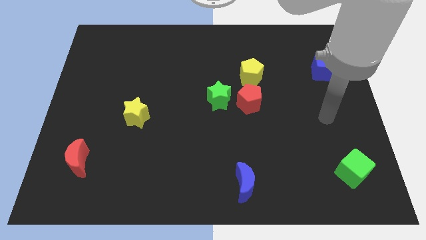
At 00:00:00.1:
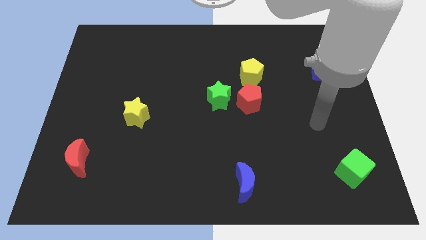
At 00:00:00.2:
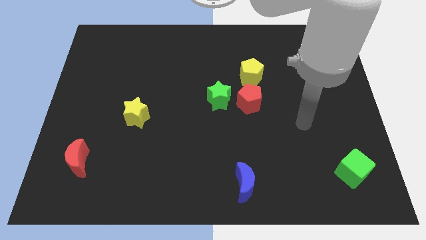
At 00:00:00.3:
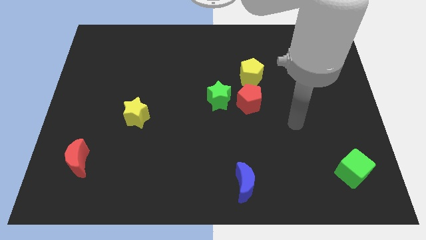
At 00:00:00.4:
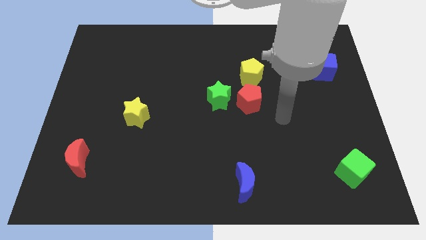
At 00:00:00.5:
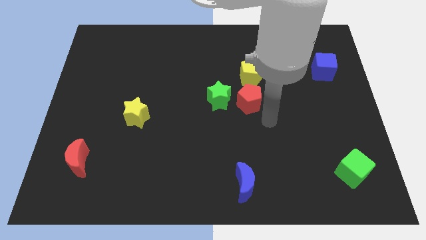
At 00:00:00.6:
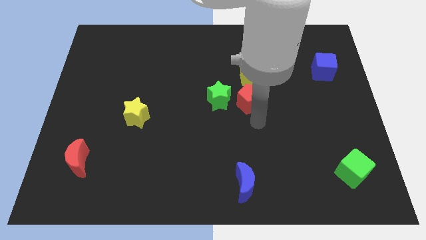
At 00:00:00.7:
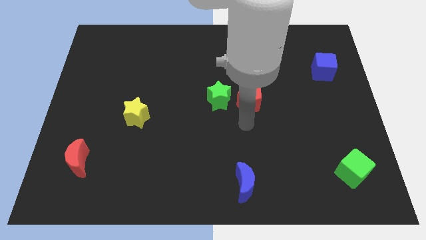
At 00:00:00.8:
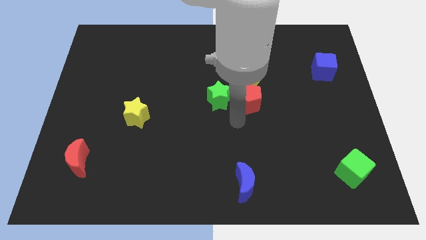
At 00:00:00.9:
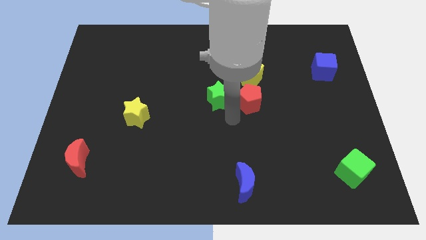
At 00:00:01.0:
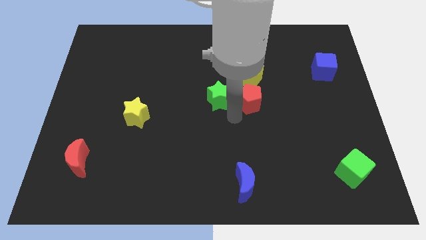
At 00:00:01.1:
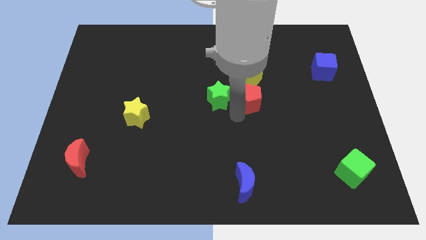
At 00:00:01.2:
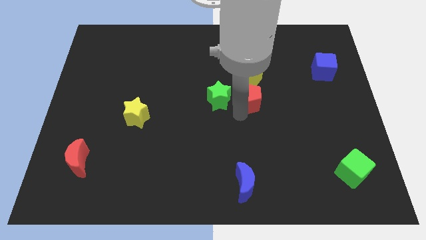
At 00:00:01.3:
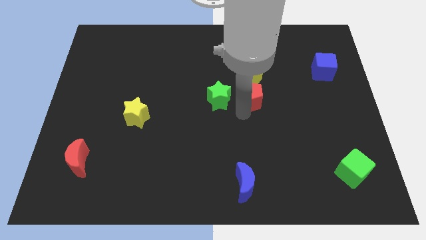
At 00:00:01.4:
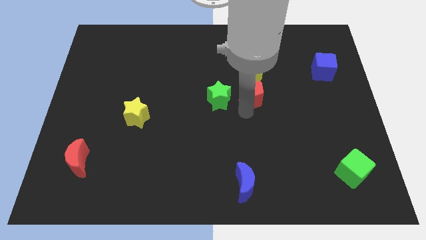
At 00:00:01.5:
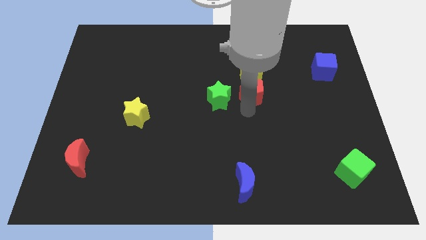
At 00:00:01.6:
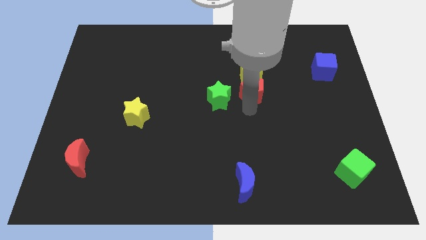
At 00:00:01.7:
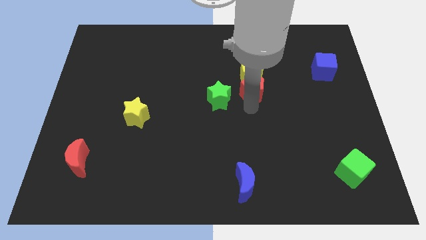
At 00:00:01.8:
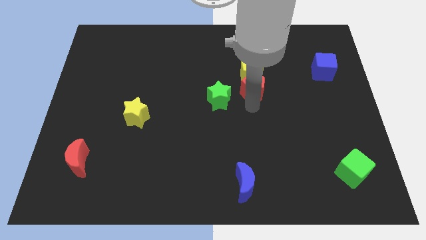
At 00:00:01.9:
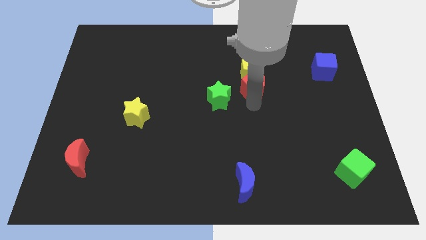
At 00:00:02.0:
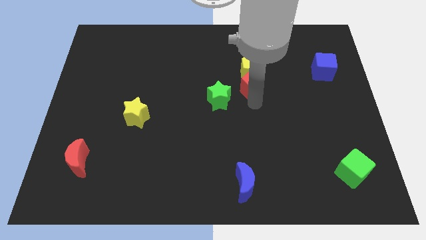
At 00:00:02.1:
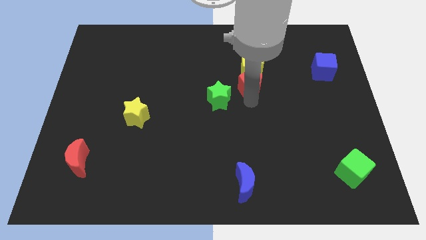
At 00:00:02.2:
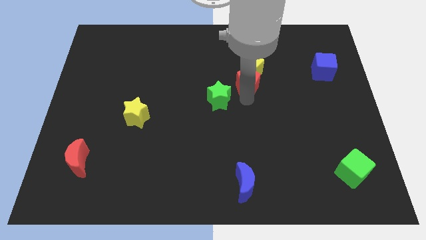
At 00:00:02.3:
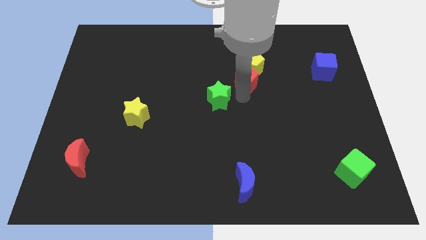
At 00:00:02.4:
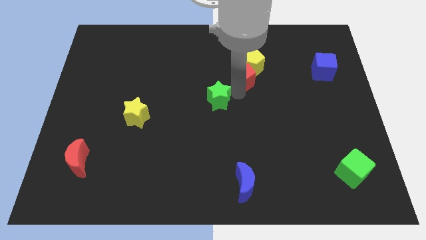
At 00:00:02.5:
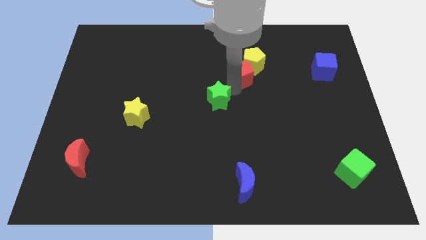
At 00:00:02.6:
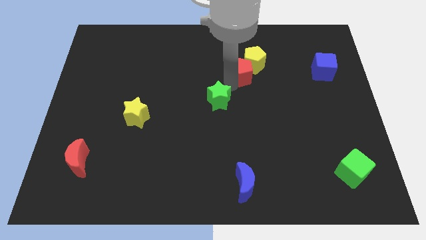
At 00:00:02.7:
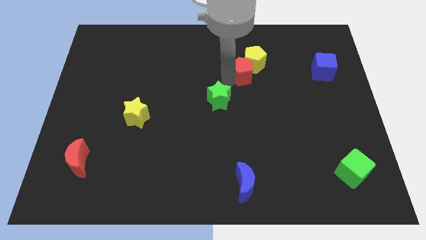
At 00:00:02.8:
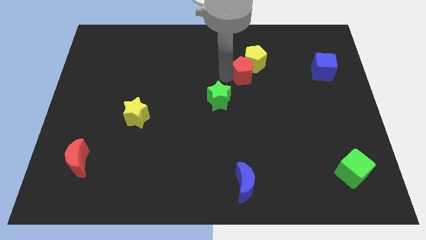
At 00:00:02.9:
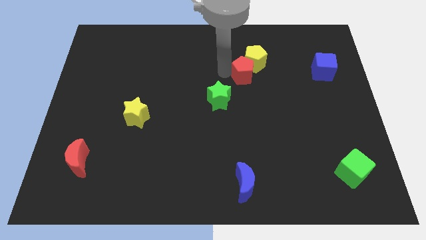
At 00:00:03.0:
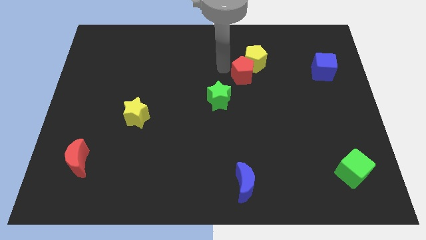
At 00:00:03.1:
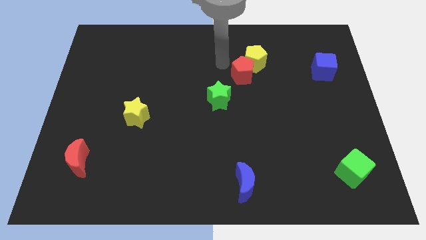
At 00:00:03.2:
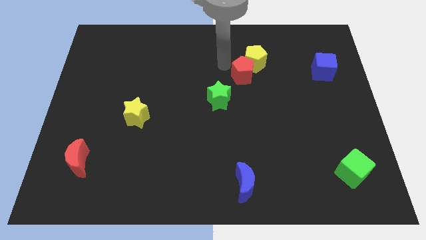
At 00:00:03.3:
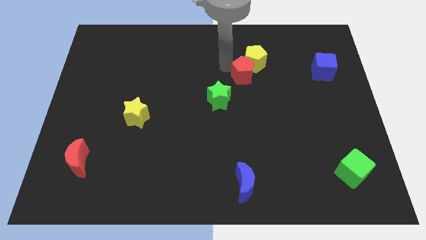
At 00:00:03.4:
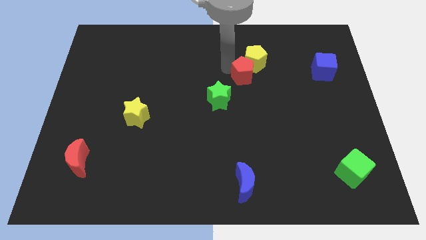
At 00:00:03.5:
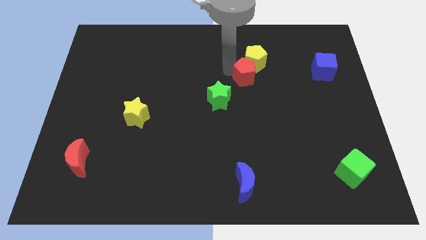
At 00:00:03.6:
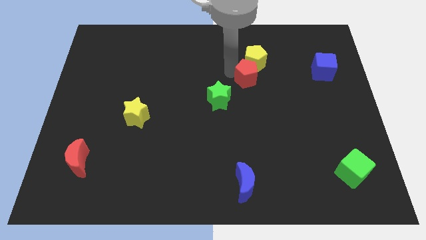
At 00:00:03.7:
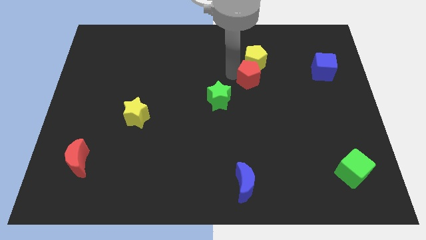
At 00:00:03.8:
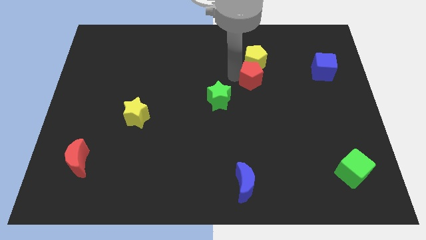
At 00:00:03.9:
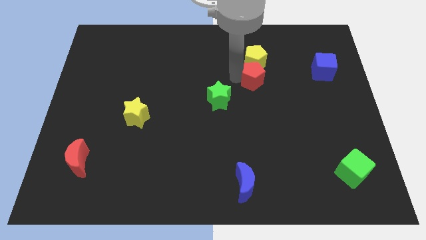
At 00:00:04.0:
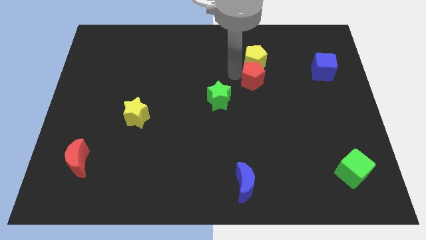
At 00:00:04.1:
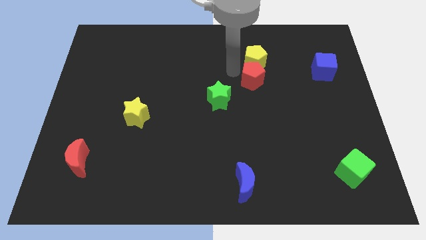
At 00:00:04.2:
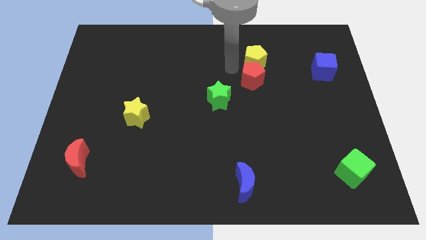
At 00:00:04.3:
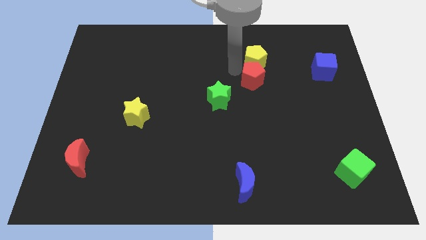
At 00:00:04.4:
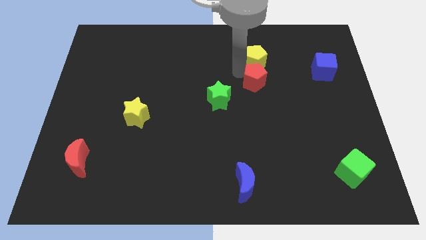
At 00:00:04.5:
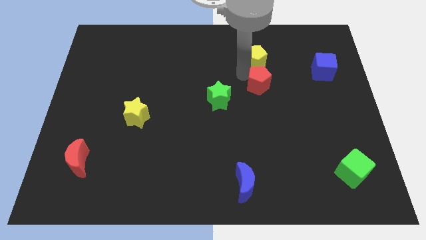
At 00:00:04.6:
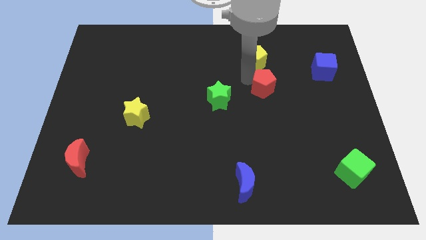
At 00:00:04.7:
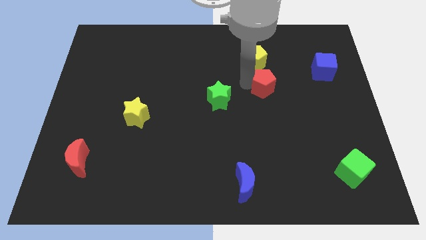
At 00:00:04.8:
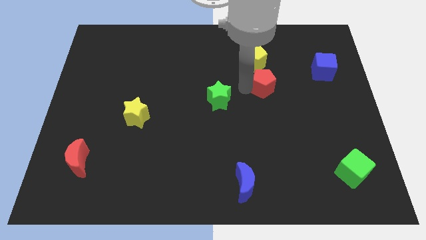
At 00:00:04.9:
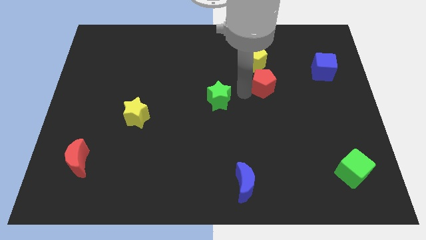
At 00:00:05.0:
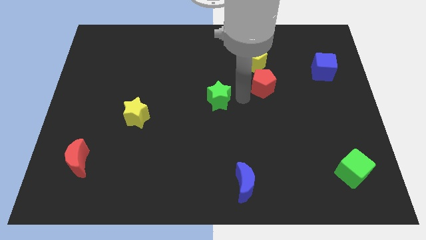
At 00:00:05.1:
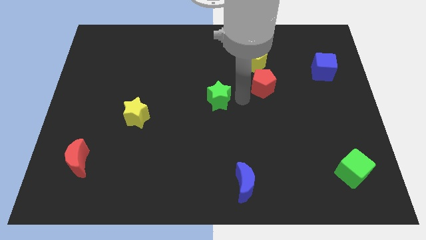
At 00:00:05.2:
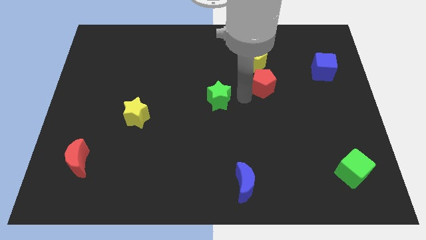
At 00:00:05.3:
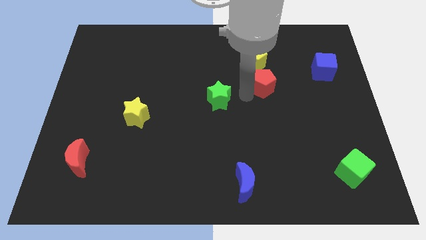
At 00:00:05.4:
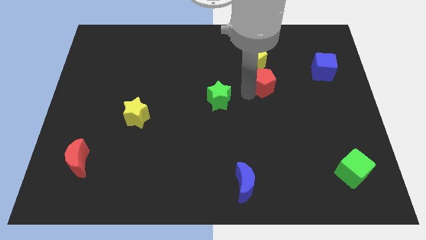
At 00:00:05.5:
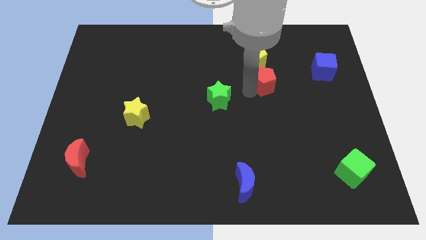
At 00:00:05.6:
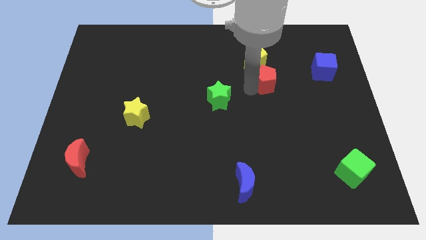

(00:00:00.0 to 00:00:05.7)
slightly slide the red pentagon up and right

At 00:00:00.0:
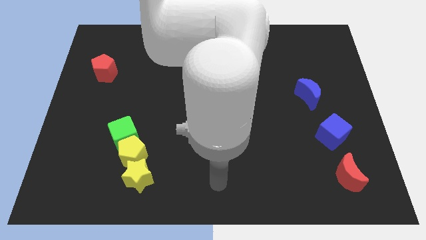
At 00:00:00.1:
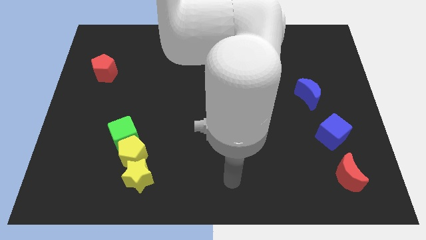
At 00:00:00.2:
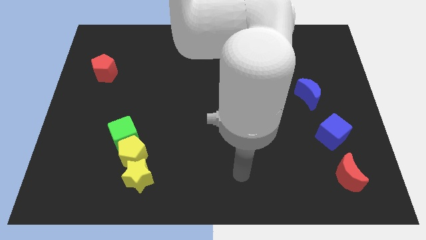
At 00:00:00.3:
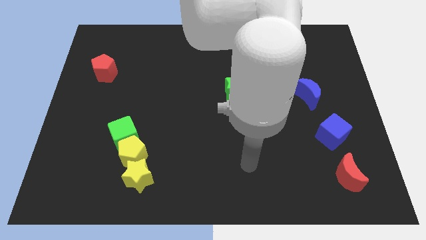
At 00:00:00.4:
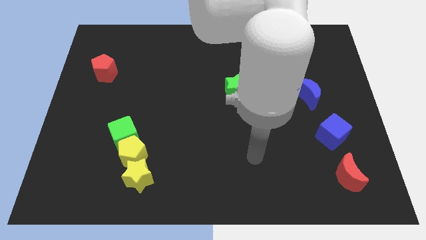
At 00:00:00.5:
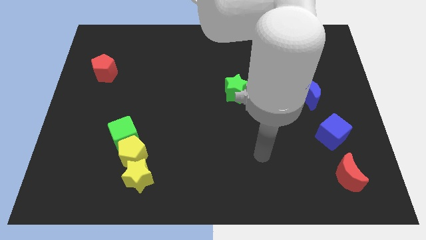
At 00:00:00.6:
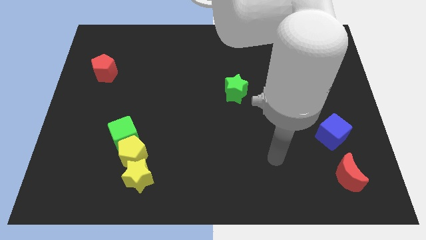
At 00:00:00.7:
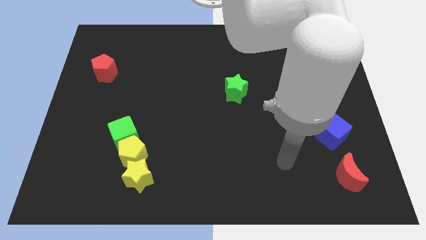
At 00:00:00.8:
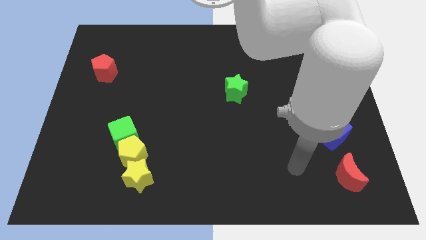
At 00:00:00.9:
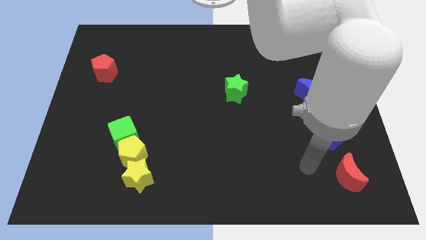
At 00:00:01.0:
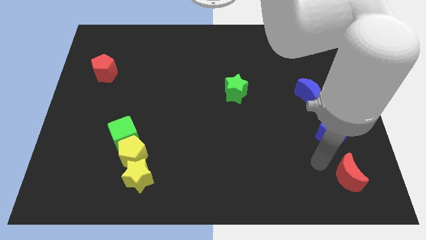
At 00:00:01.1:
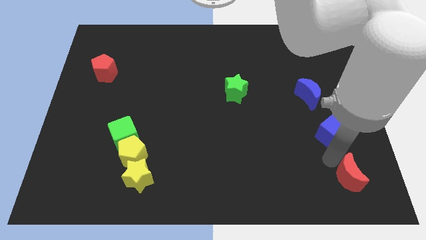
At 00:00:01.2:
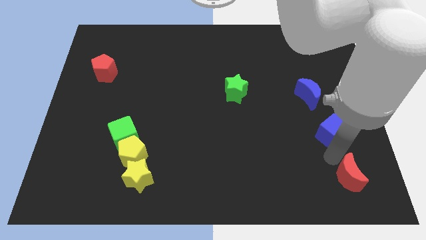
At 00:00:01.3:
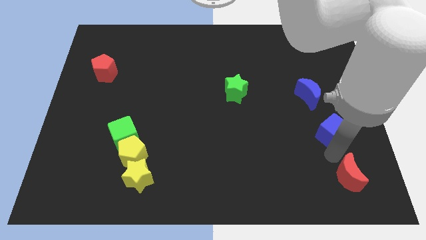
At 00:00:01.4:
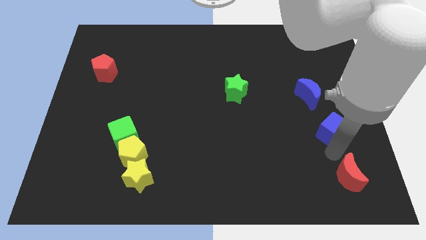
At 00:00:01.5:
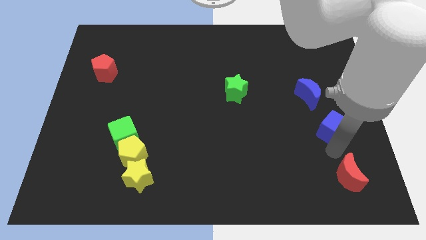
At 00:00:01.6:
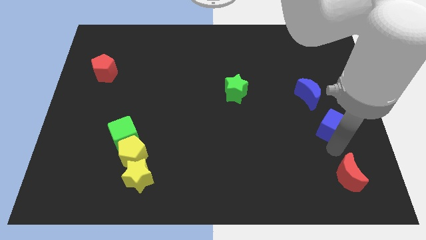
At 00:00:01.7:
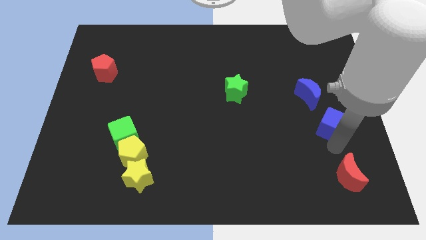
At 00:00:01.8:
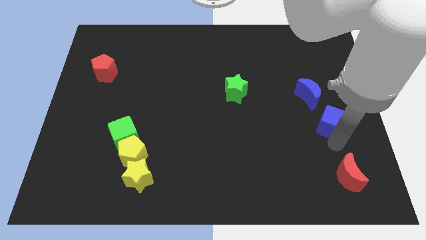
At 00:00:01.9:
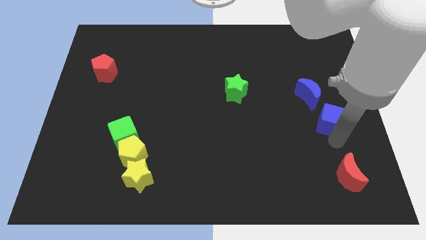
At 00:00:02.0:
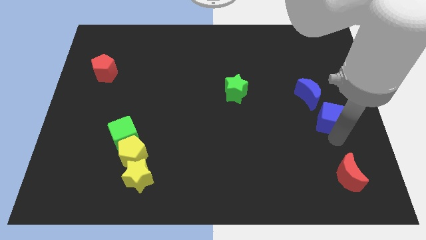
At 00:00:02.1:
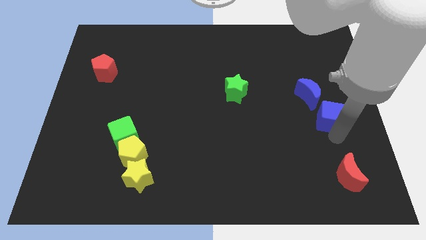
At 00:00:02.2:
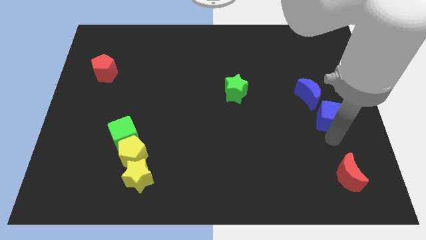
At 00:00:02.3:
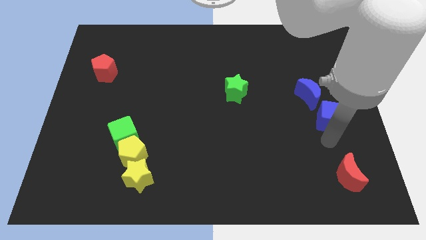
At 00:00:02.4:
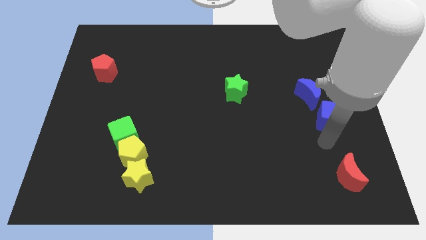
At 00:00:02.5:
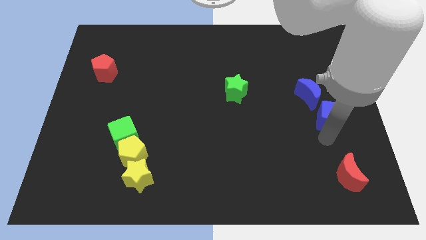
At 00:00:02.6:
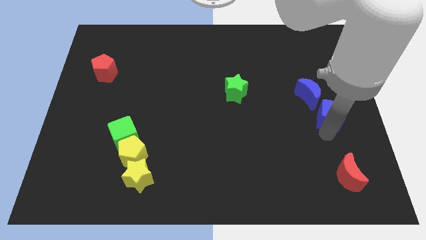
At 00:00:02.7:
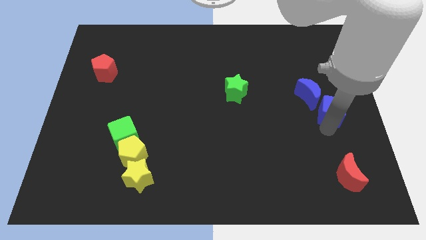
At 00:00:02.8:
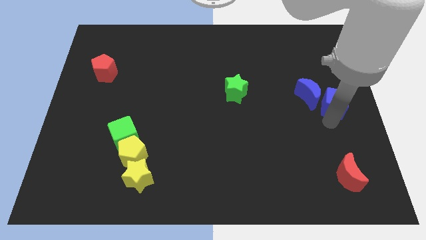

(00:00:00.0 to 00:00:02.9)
slightly move the blue cube up
